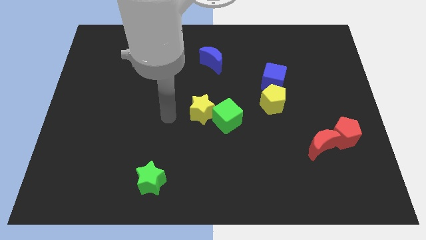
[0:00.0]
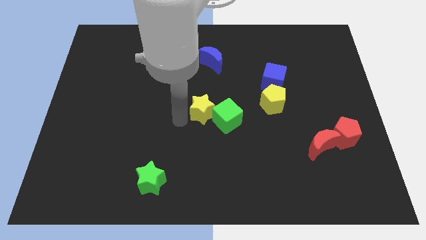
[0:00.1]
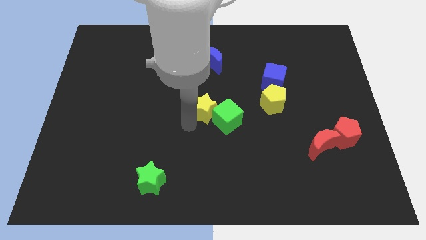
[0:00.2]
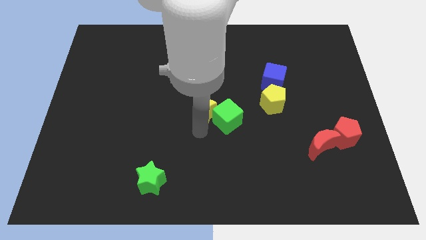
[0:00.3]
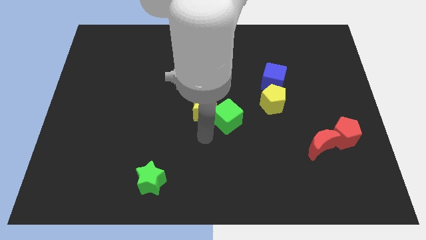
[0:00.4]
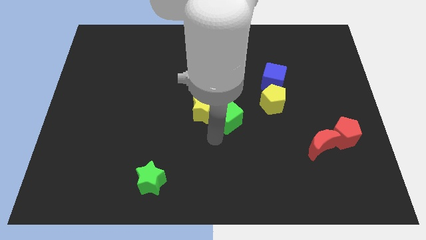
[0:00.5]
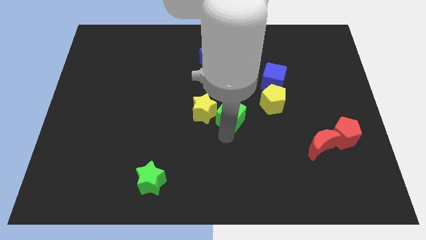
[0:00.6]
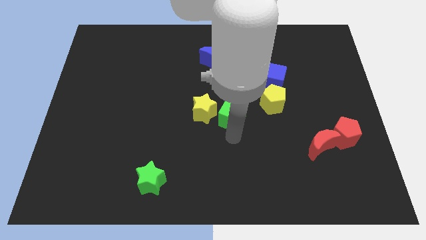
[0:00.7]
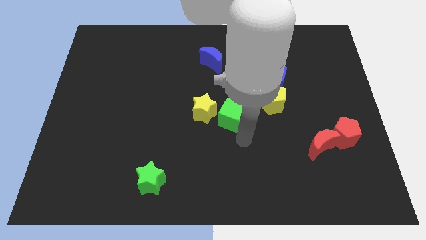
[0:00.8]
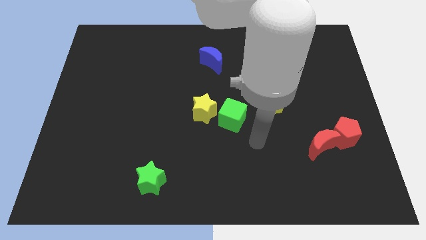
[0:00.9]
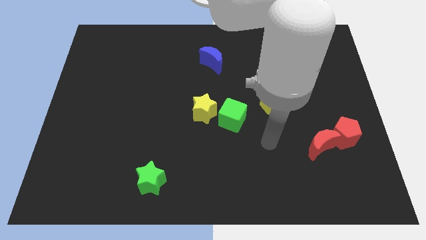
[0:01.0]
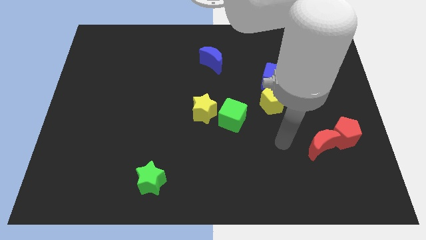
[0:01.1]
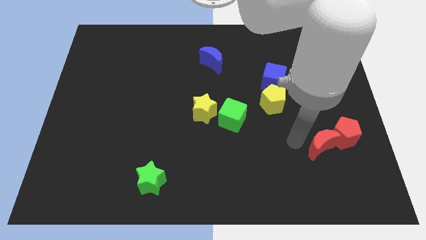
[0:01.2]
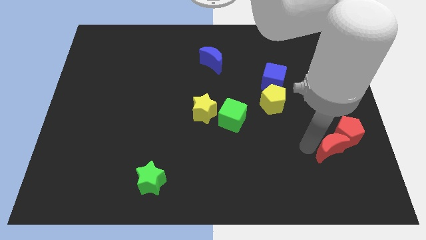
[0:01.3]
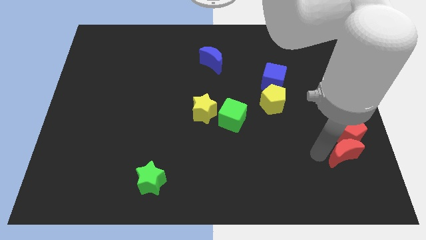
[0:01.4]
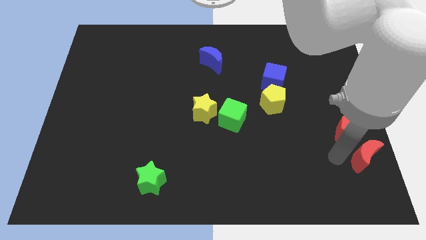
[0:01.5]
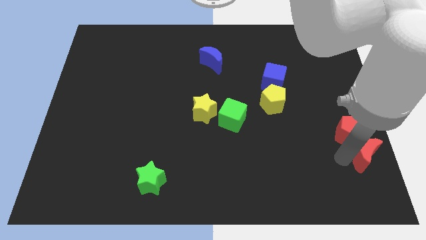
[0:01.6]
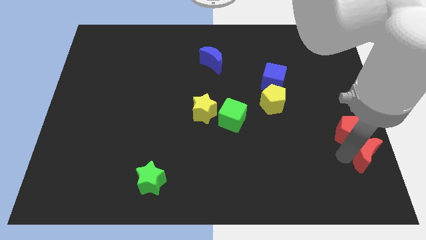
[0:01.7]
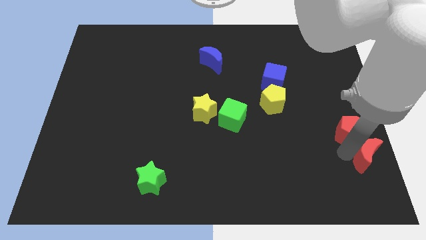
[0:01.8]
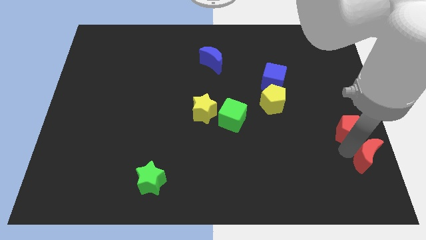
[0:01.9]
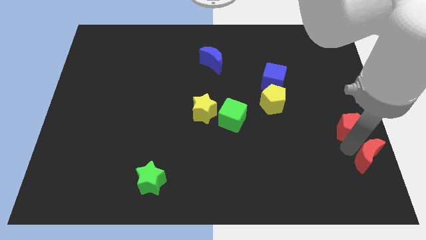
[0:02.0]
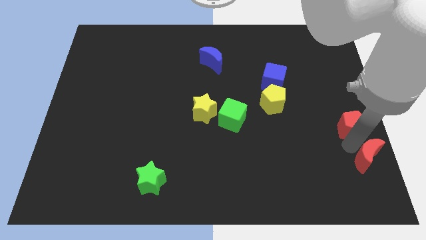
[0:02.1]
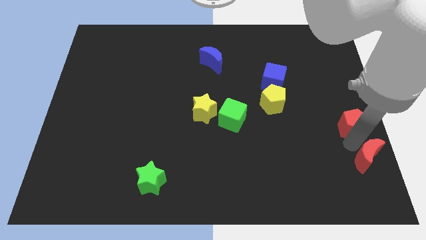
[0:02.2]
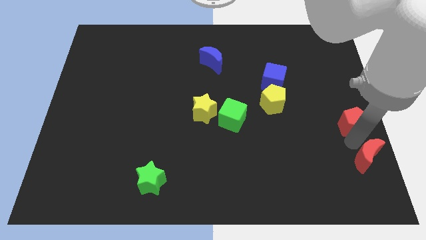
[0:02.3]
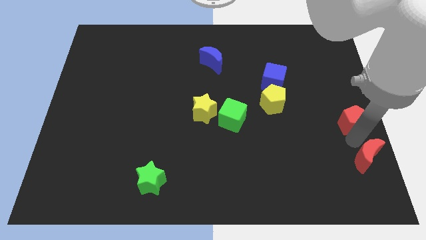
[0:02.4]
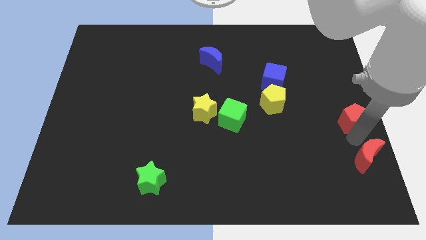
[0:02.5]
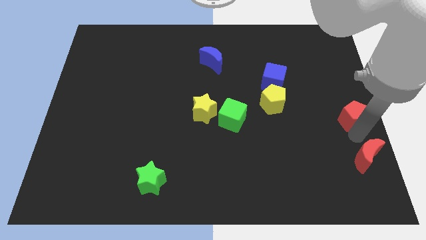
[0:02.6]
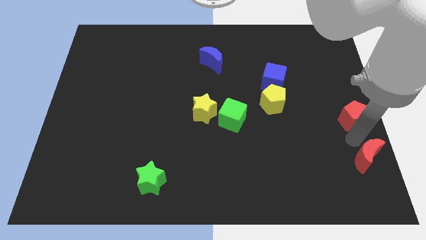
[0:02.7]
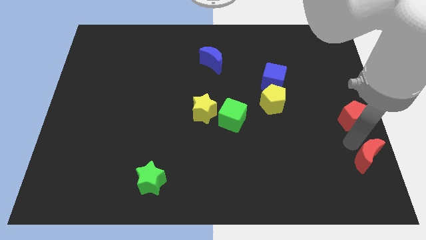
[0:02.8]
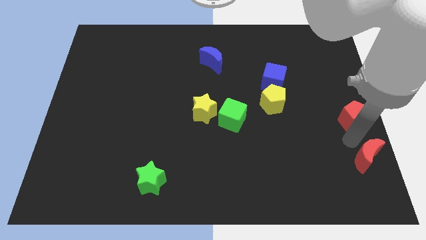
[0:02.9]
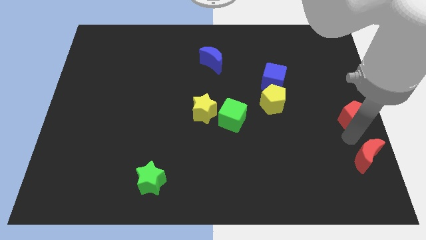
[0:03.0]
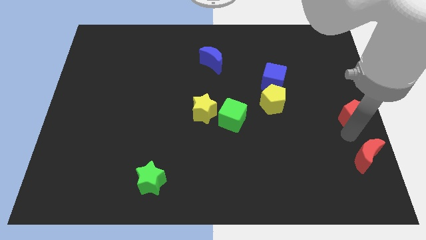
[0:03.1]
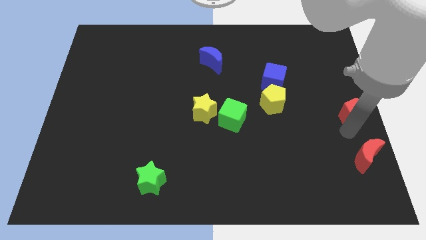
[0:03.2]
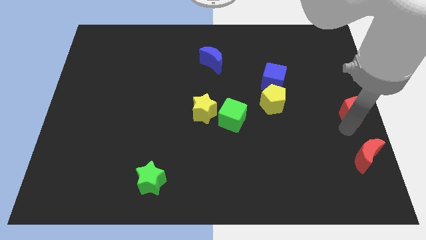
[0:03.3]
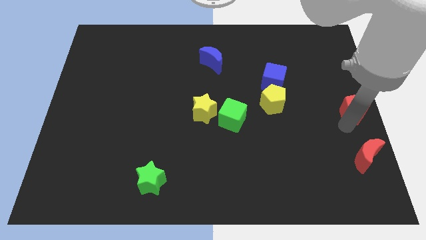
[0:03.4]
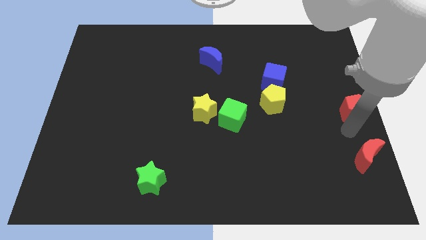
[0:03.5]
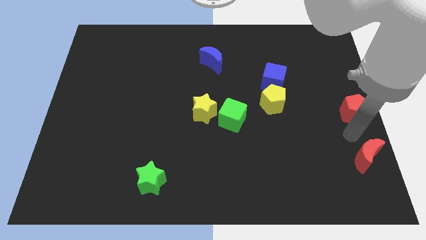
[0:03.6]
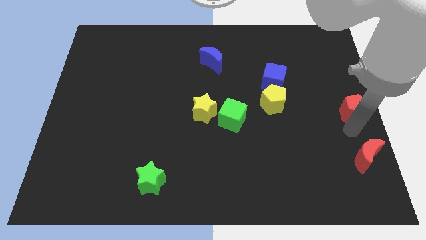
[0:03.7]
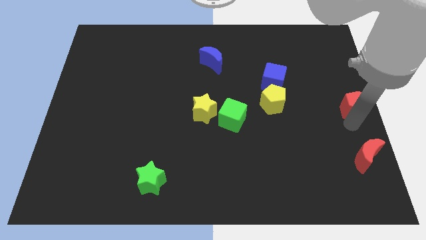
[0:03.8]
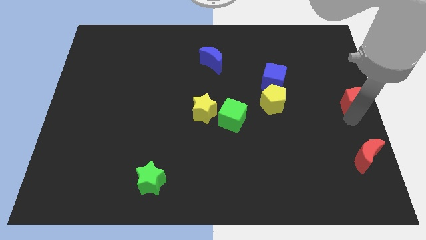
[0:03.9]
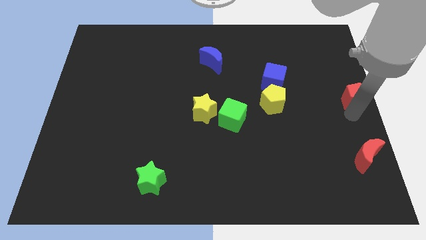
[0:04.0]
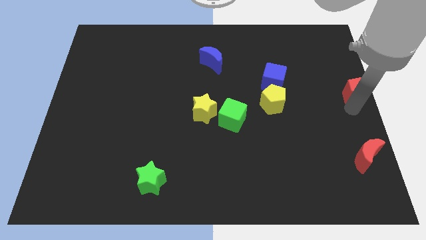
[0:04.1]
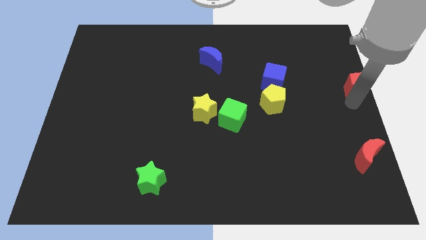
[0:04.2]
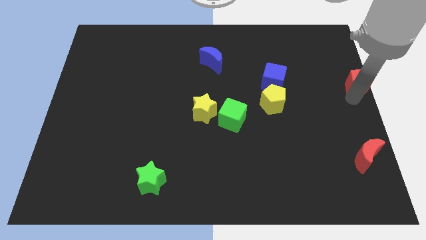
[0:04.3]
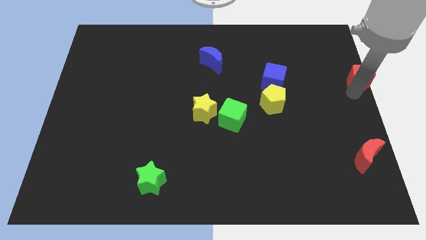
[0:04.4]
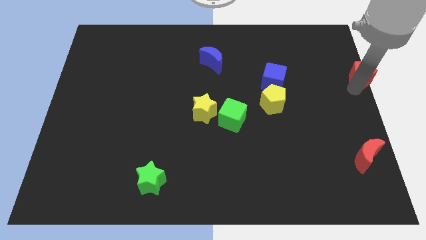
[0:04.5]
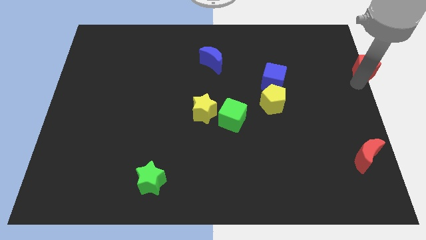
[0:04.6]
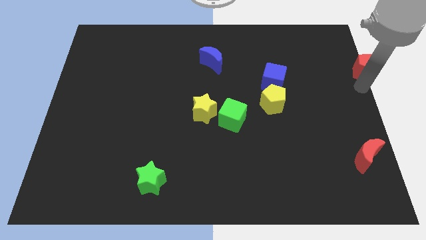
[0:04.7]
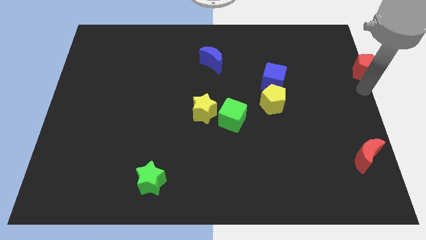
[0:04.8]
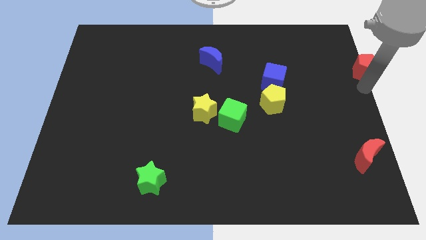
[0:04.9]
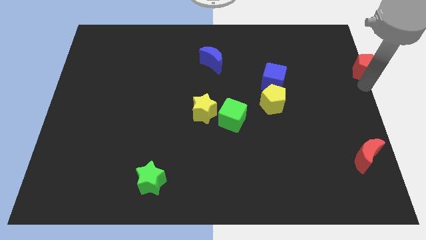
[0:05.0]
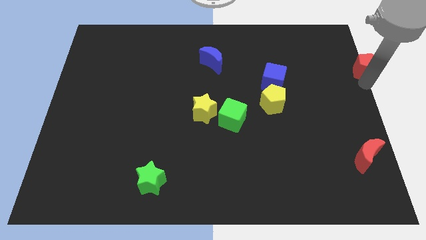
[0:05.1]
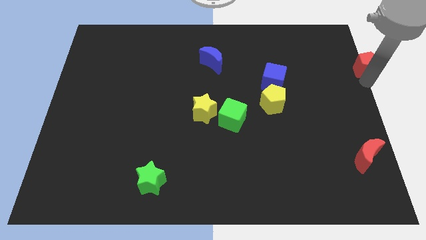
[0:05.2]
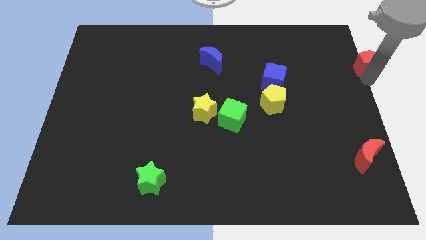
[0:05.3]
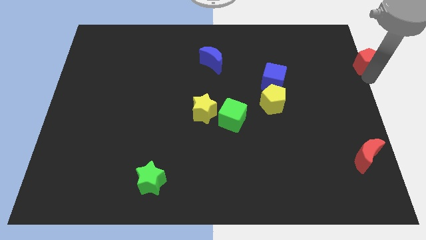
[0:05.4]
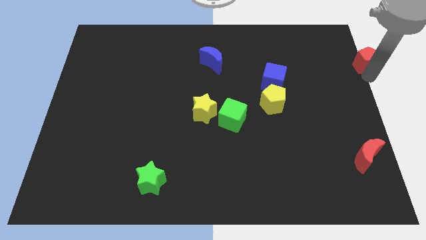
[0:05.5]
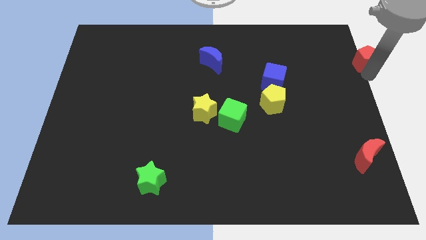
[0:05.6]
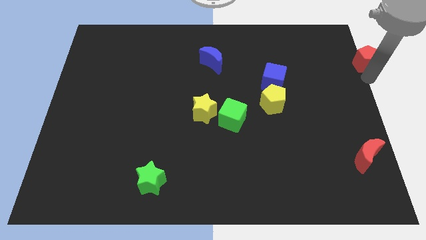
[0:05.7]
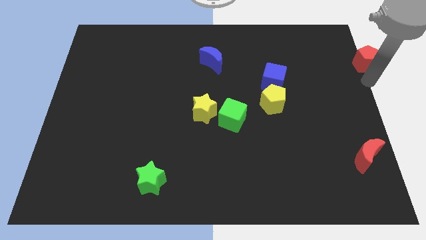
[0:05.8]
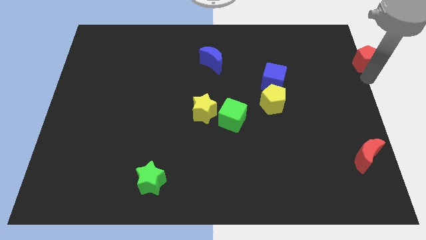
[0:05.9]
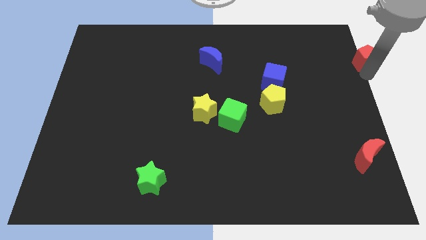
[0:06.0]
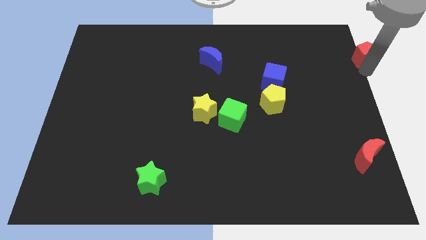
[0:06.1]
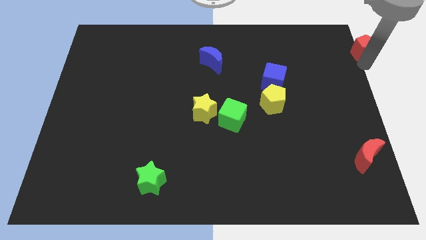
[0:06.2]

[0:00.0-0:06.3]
move the red pentagon to the top right of the board
